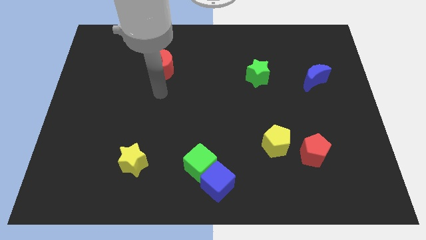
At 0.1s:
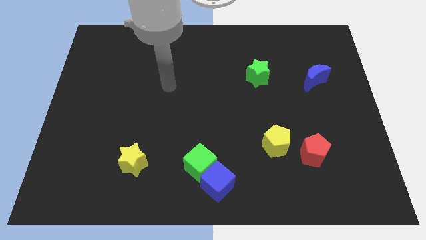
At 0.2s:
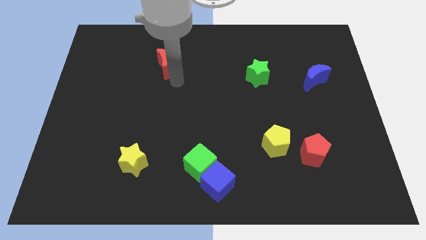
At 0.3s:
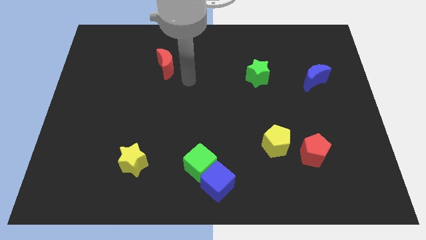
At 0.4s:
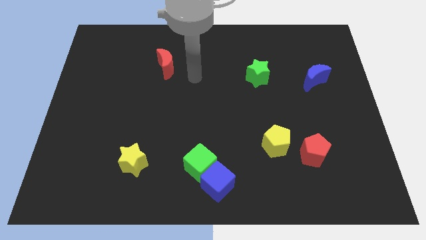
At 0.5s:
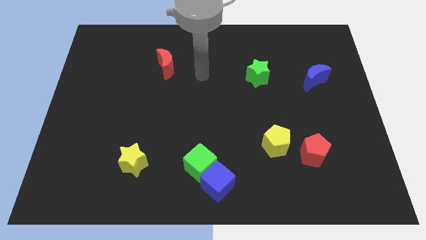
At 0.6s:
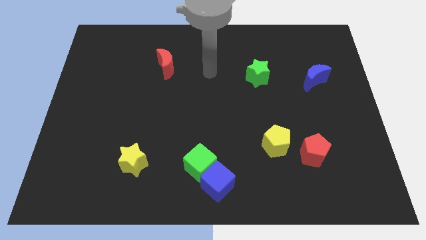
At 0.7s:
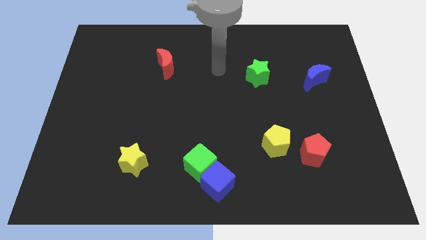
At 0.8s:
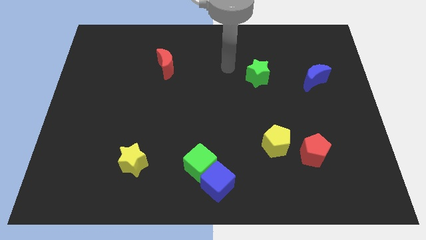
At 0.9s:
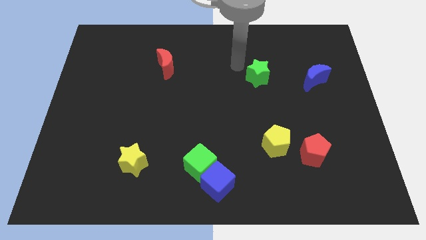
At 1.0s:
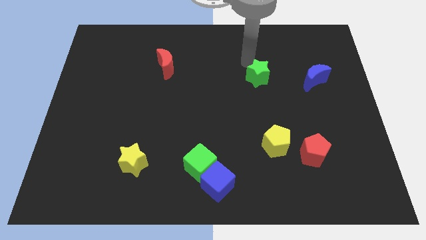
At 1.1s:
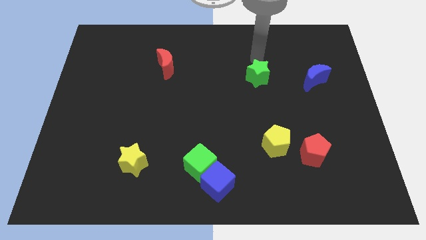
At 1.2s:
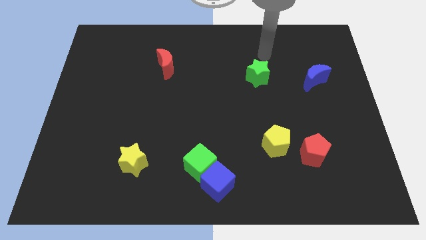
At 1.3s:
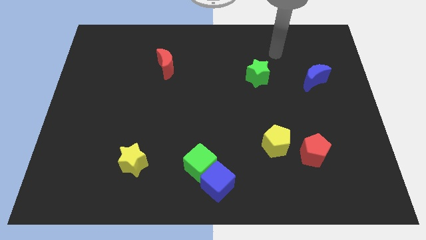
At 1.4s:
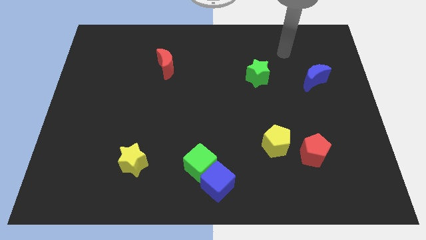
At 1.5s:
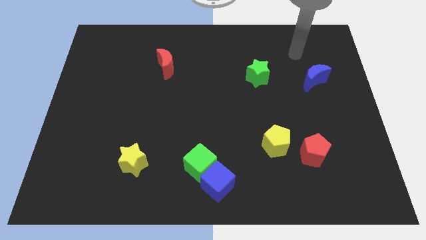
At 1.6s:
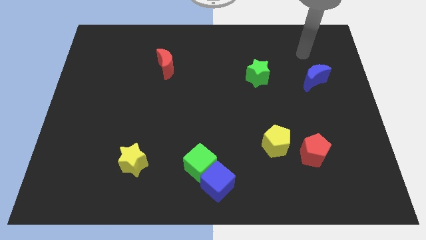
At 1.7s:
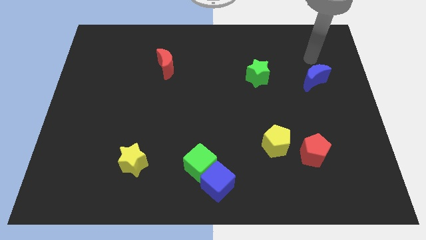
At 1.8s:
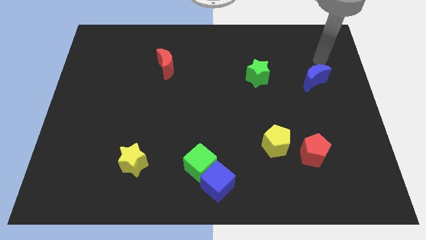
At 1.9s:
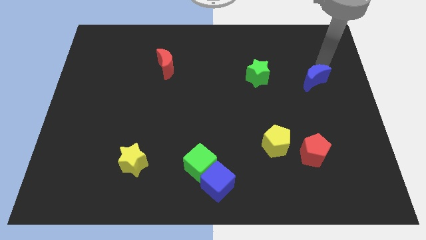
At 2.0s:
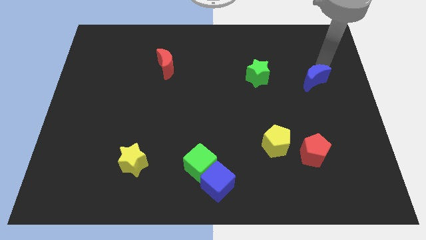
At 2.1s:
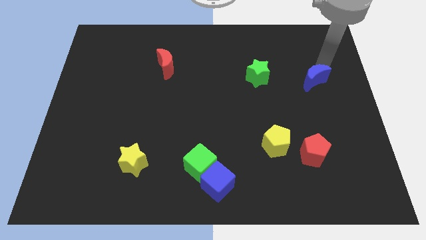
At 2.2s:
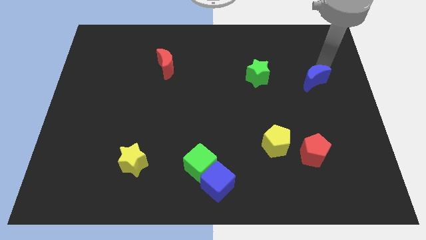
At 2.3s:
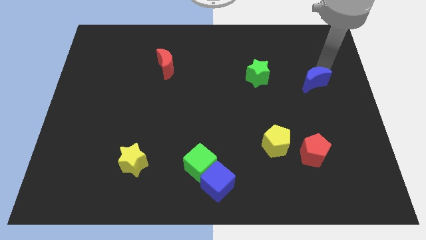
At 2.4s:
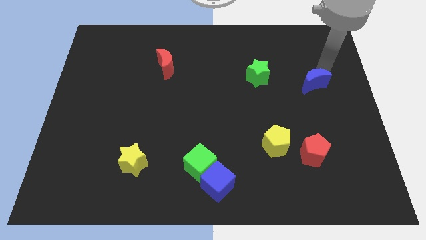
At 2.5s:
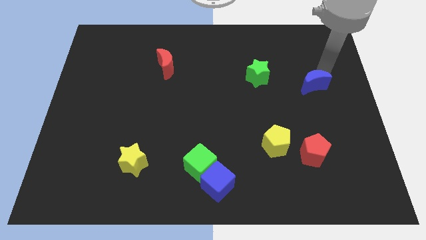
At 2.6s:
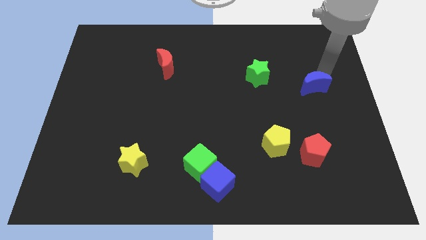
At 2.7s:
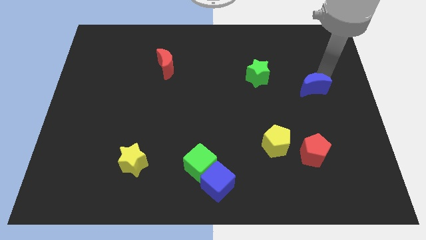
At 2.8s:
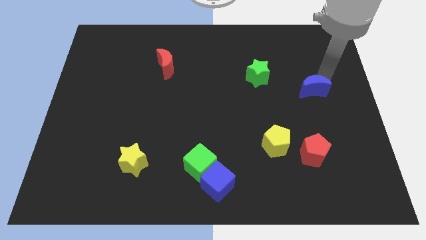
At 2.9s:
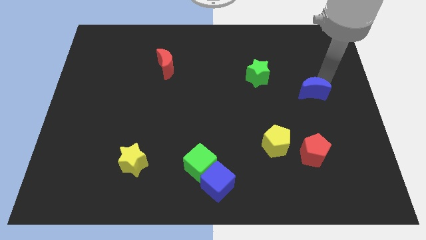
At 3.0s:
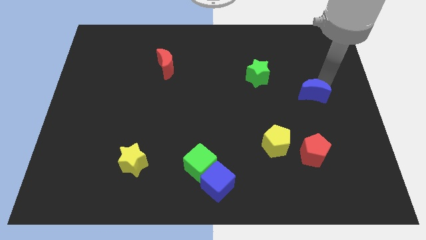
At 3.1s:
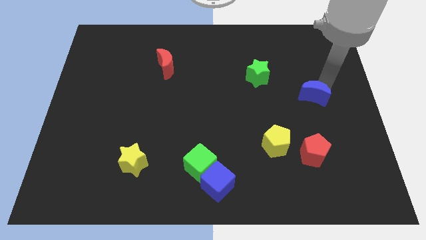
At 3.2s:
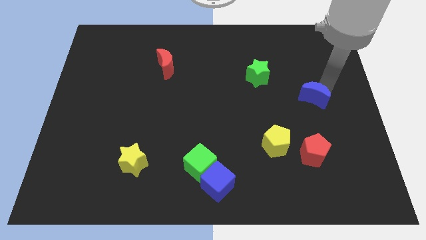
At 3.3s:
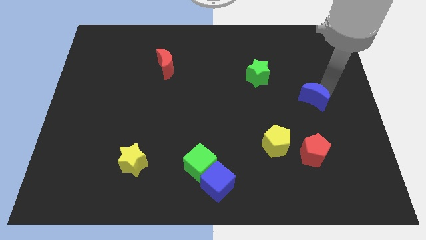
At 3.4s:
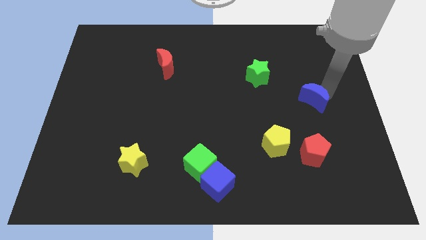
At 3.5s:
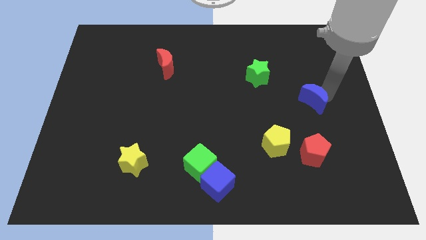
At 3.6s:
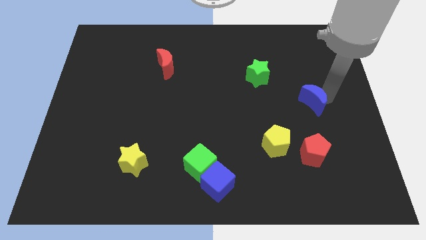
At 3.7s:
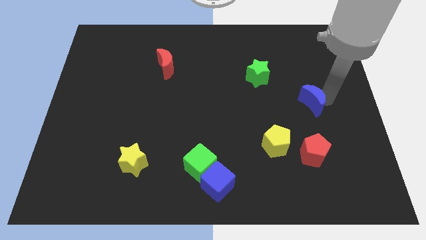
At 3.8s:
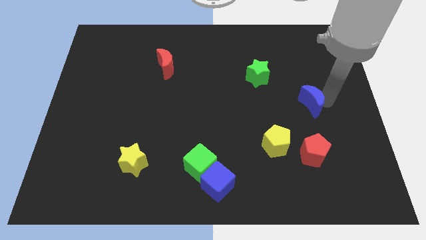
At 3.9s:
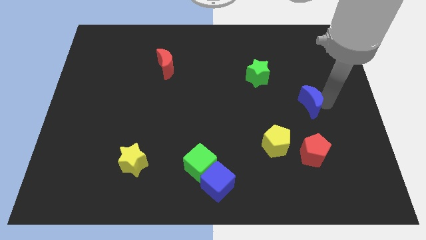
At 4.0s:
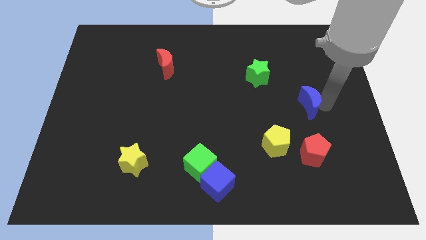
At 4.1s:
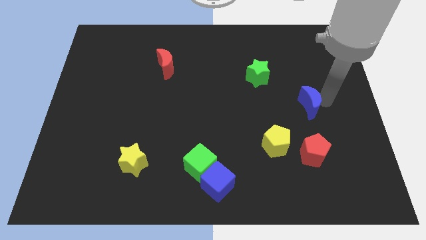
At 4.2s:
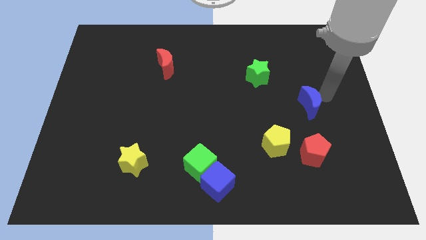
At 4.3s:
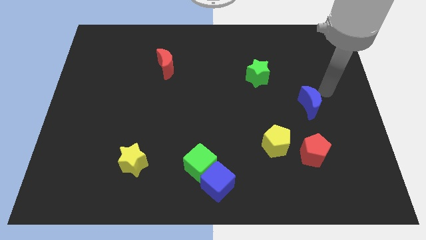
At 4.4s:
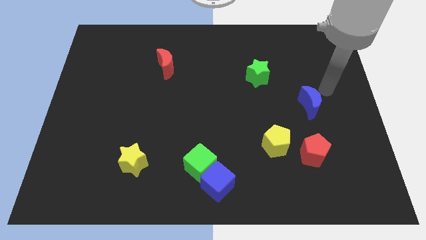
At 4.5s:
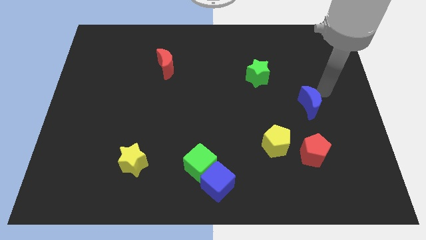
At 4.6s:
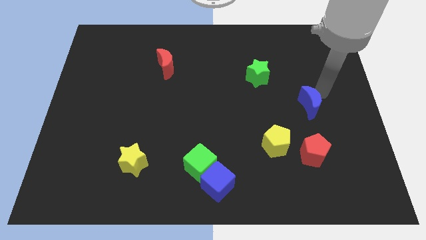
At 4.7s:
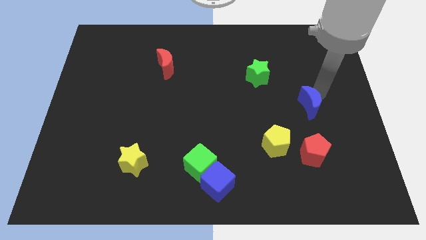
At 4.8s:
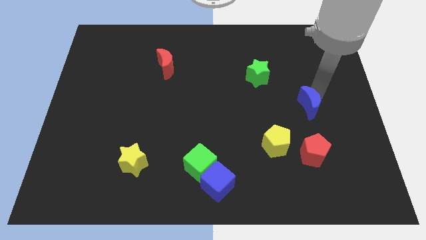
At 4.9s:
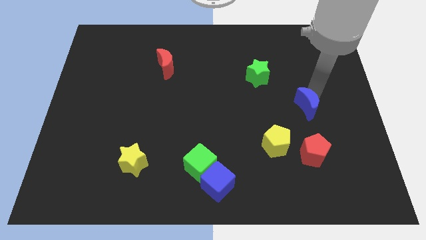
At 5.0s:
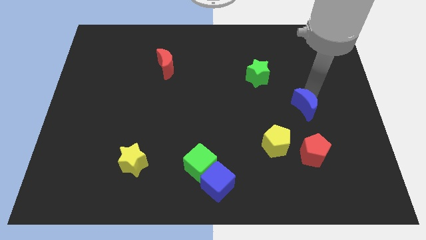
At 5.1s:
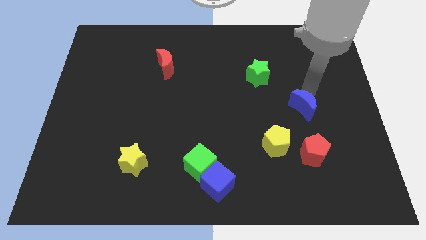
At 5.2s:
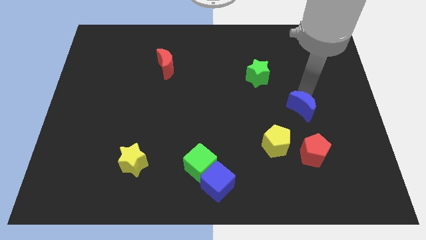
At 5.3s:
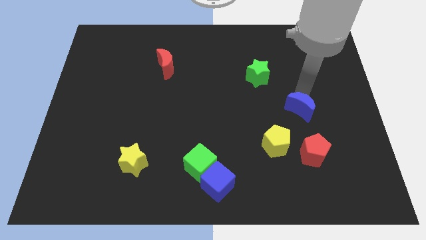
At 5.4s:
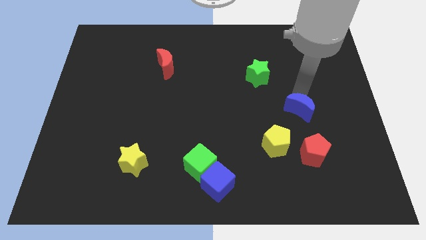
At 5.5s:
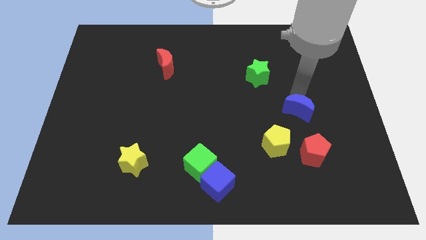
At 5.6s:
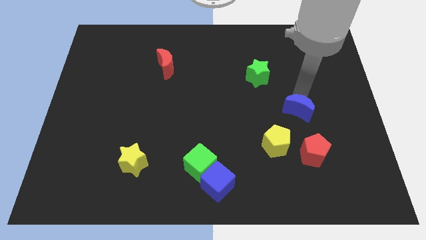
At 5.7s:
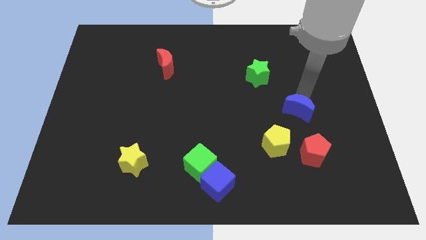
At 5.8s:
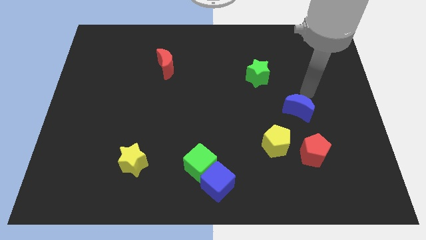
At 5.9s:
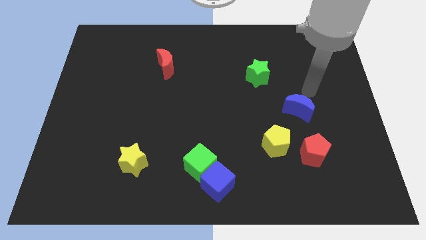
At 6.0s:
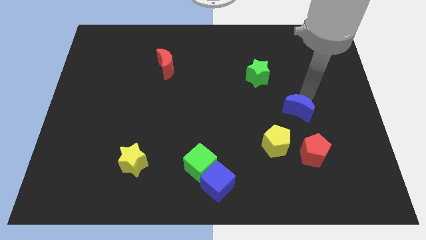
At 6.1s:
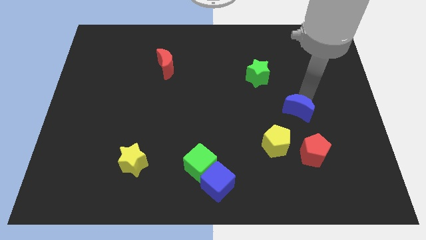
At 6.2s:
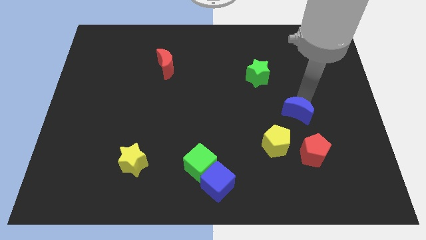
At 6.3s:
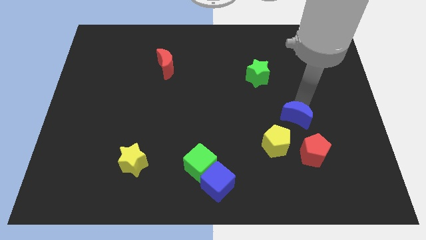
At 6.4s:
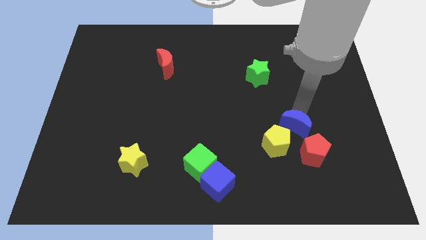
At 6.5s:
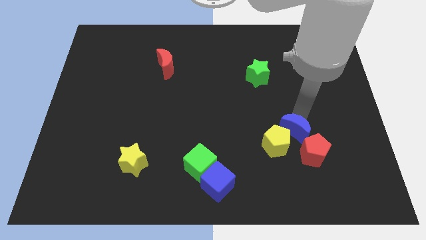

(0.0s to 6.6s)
put the blue moon close to the yellow pentagon

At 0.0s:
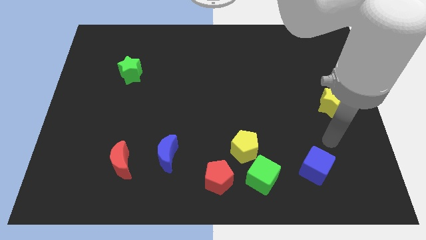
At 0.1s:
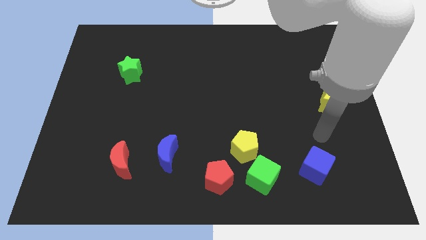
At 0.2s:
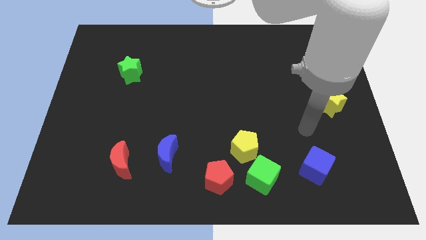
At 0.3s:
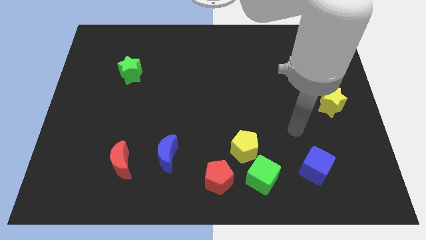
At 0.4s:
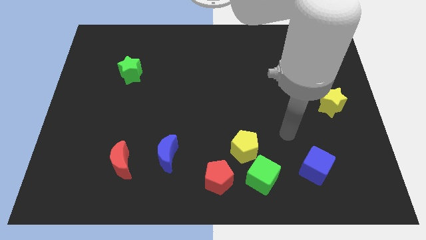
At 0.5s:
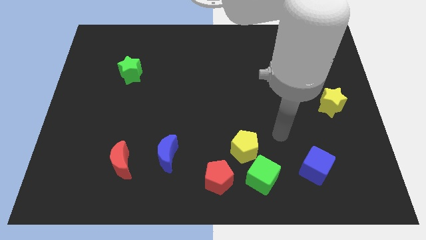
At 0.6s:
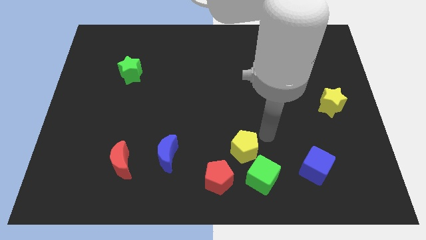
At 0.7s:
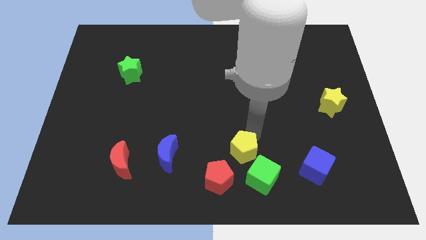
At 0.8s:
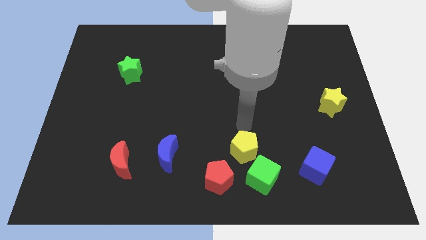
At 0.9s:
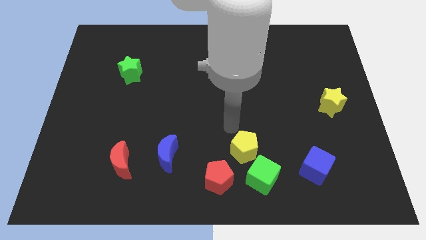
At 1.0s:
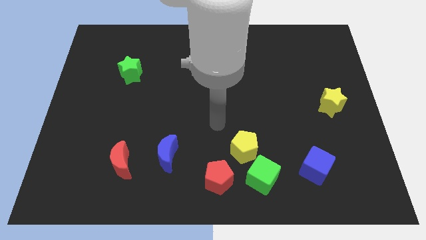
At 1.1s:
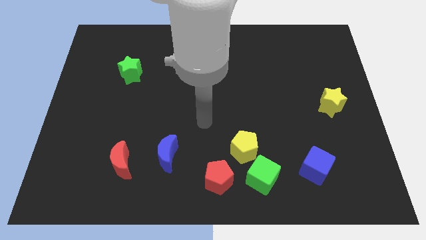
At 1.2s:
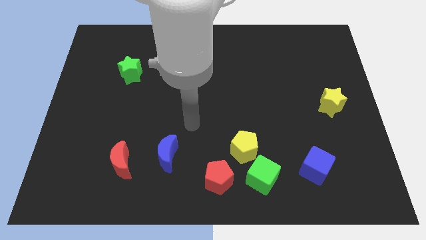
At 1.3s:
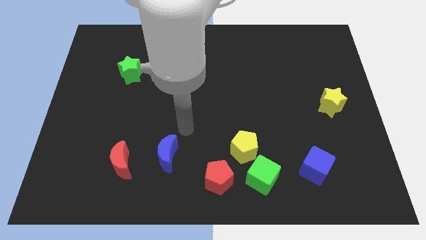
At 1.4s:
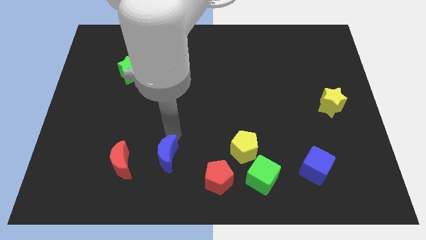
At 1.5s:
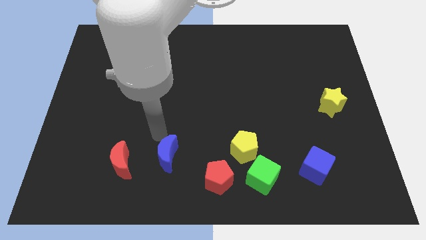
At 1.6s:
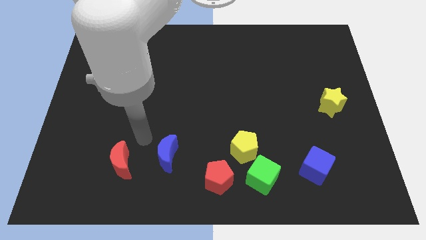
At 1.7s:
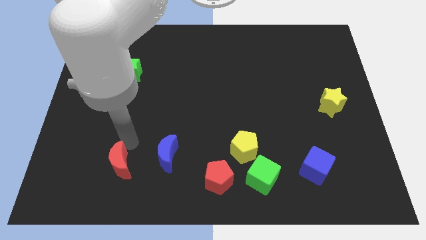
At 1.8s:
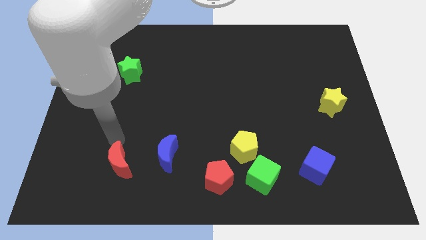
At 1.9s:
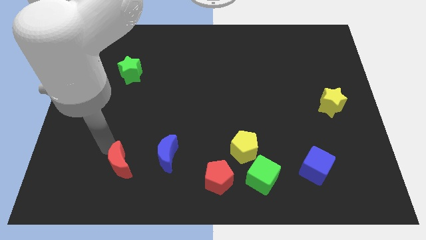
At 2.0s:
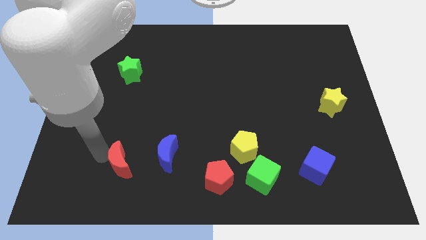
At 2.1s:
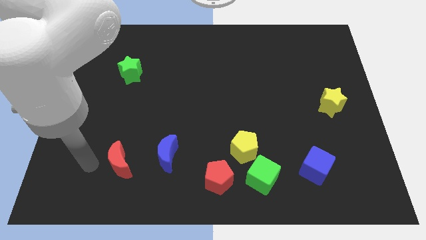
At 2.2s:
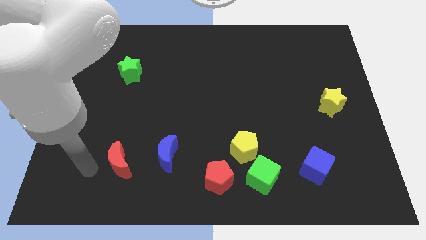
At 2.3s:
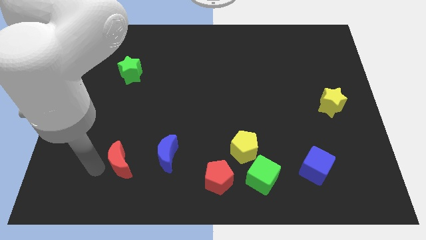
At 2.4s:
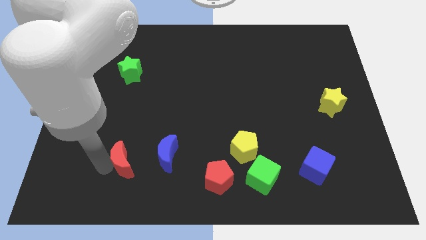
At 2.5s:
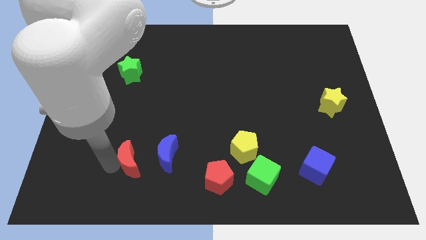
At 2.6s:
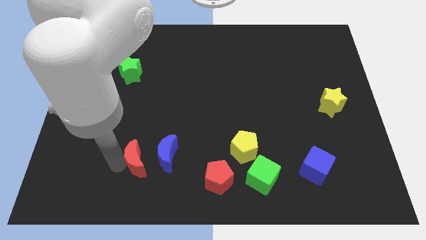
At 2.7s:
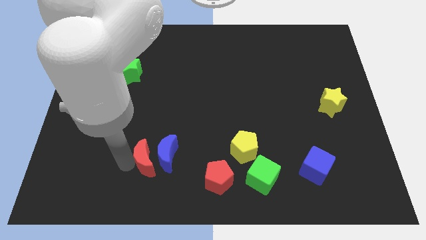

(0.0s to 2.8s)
slide the red moon next to the blue moon
